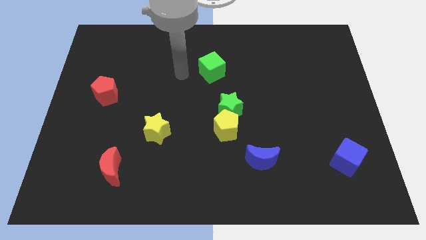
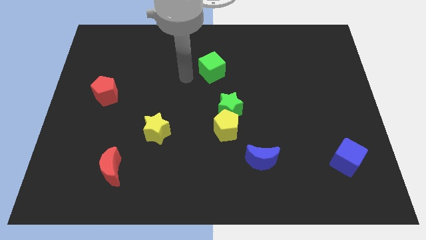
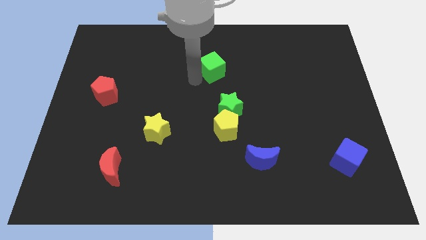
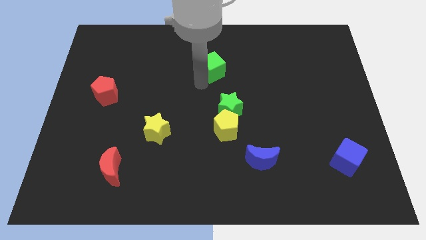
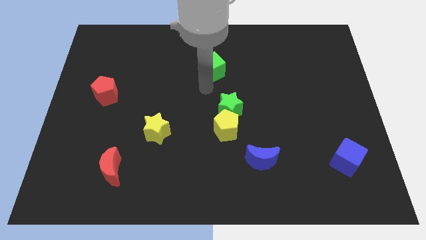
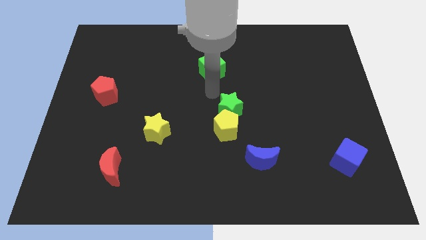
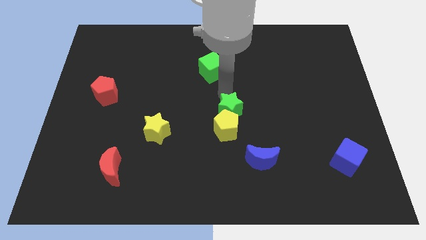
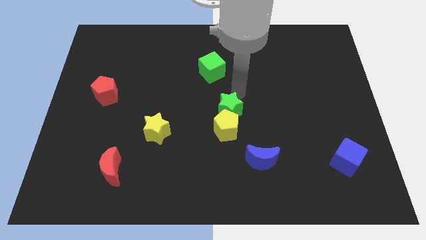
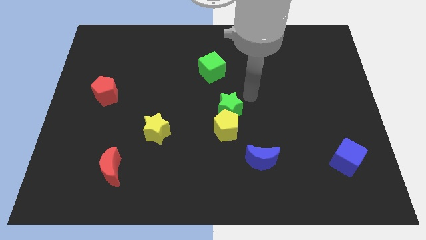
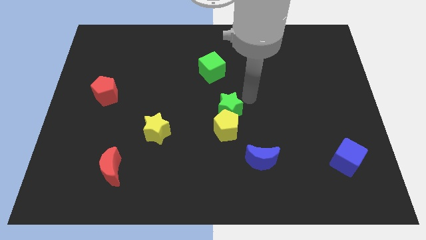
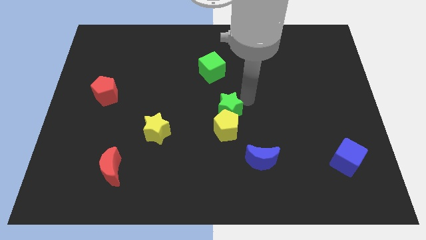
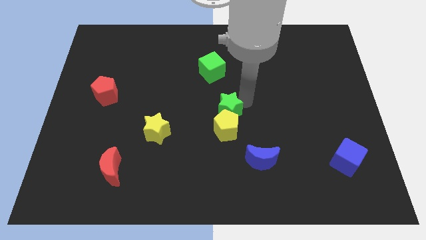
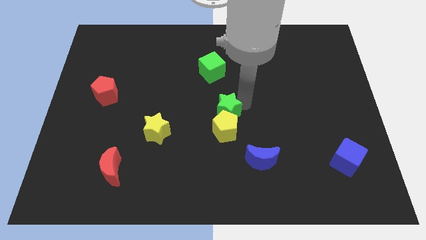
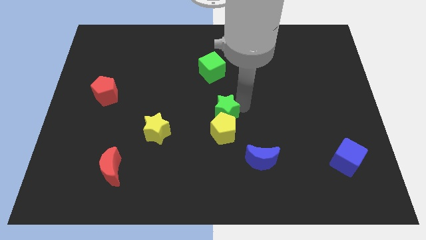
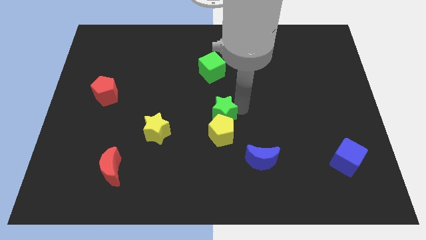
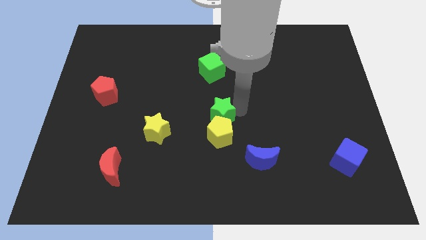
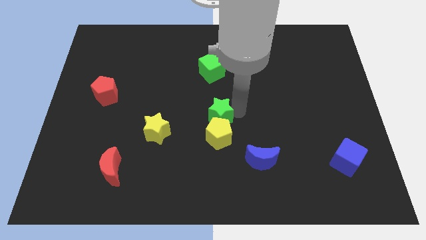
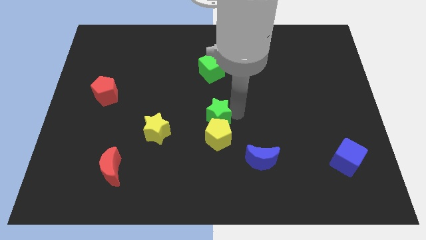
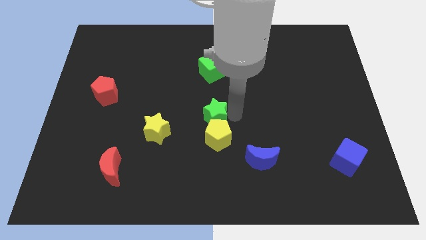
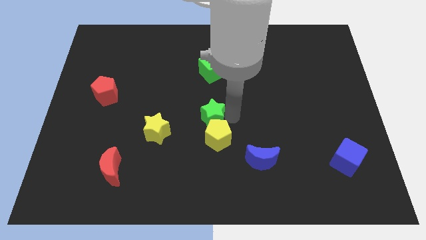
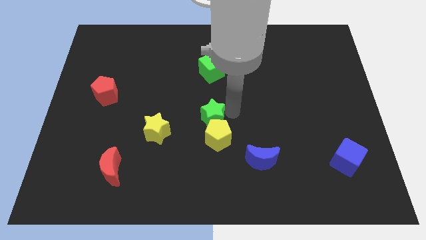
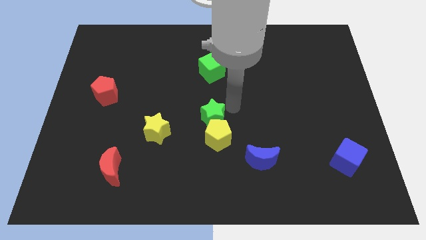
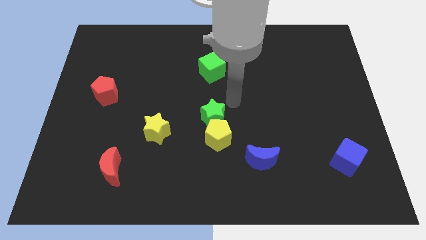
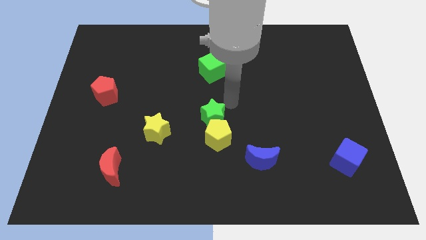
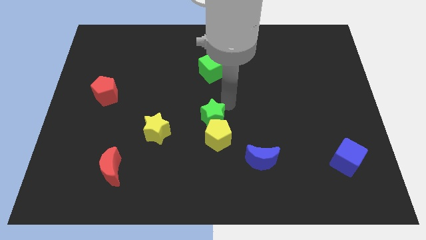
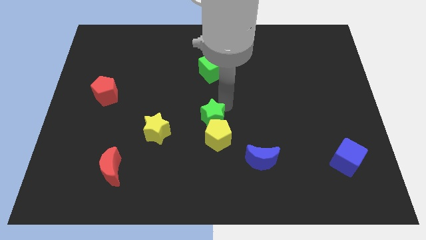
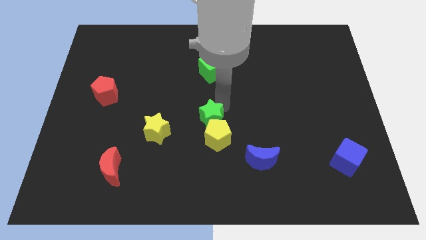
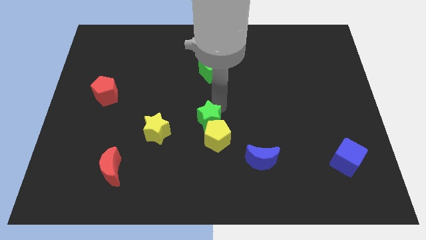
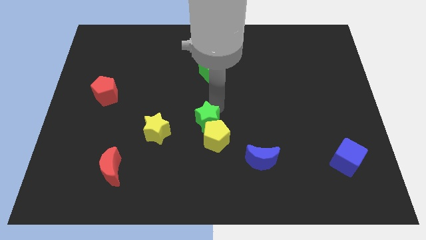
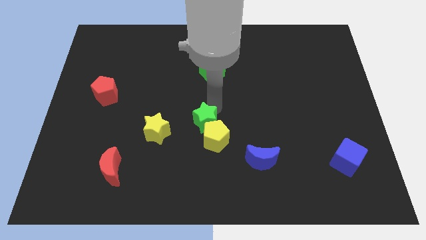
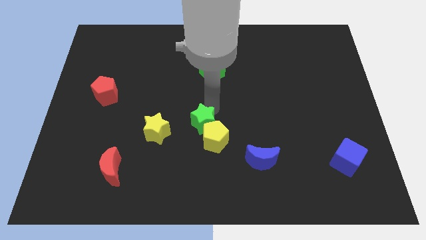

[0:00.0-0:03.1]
move the green star down and then left a little

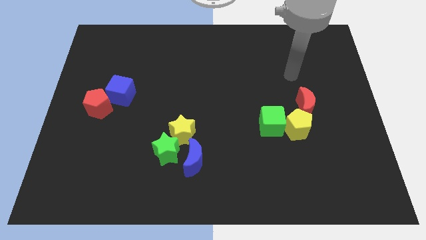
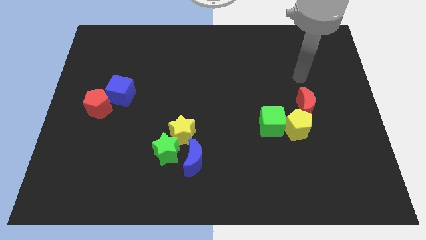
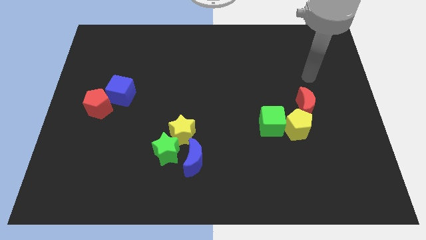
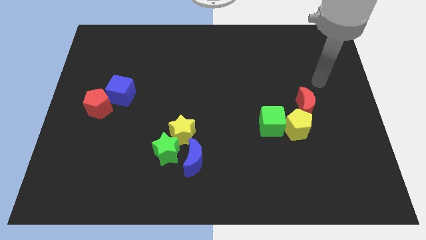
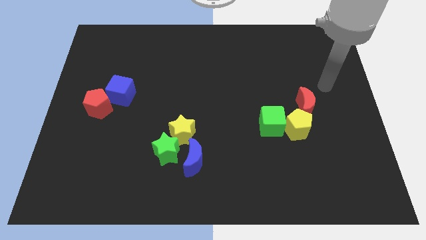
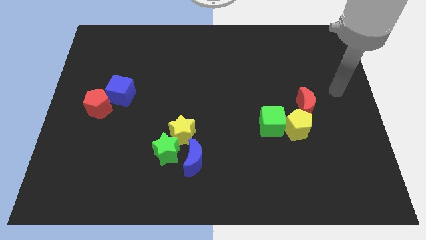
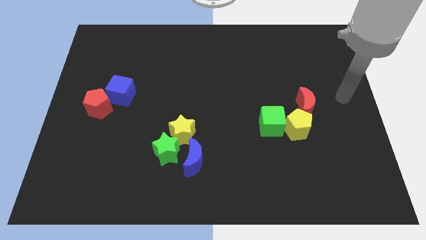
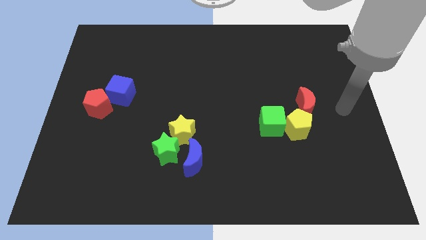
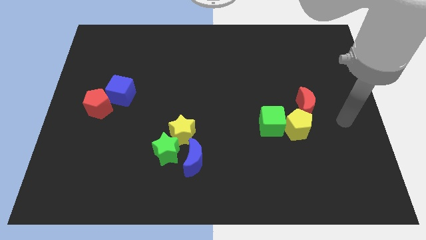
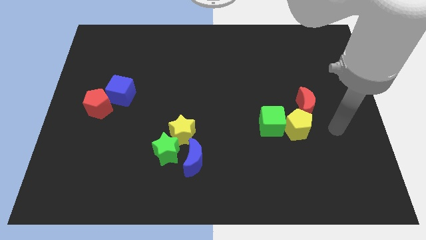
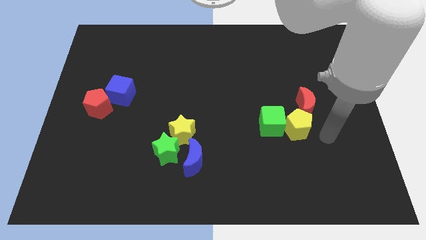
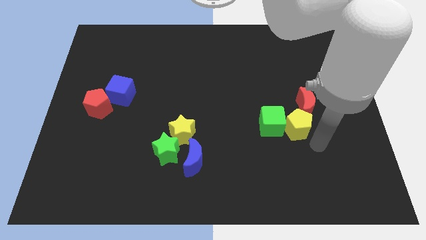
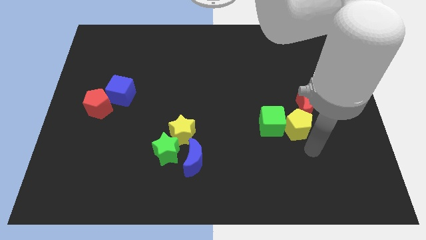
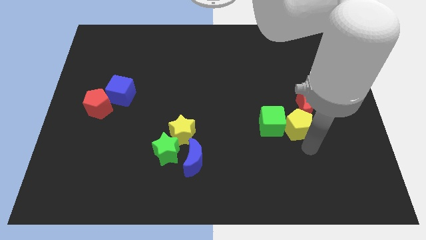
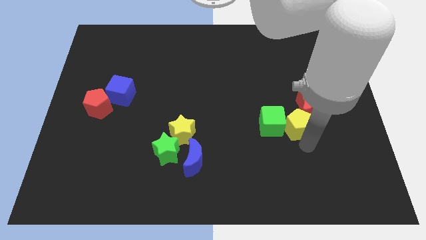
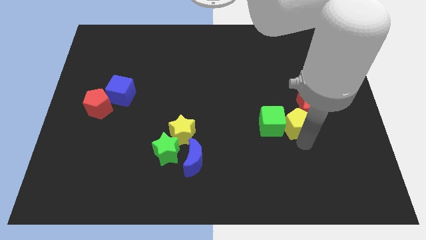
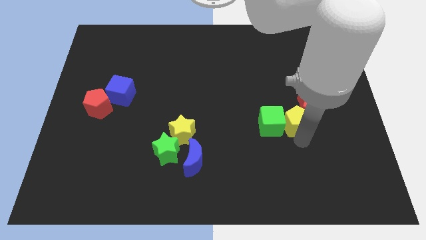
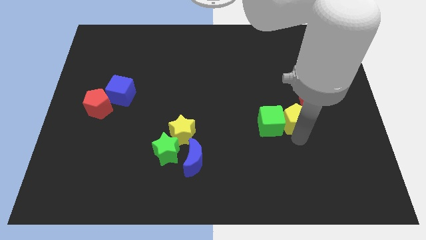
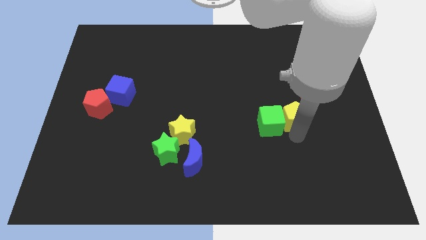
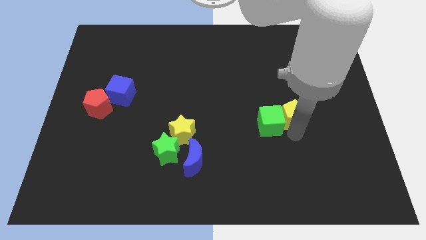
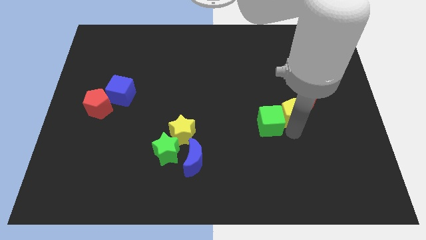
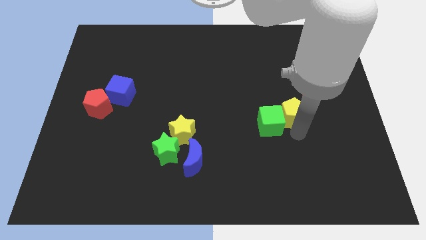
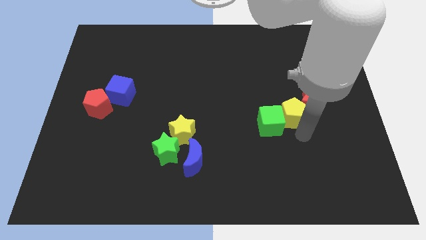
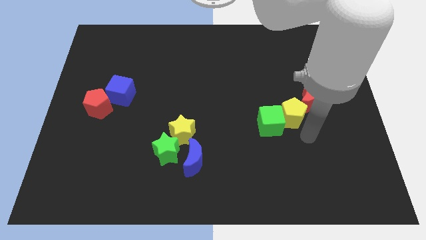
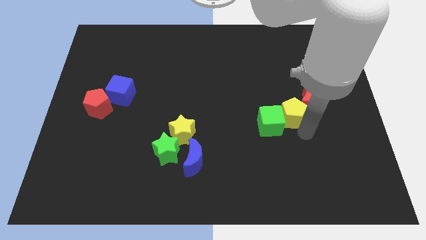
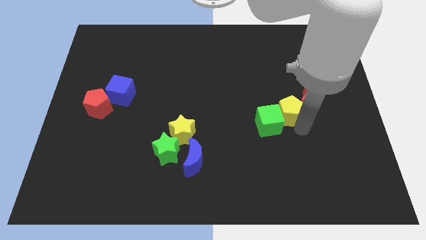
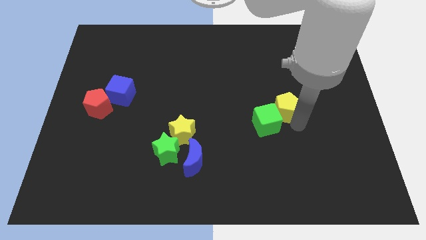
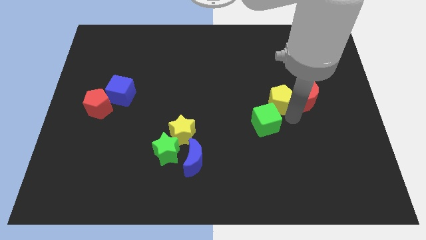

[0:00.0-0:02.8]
push the yellow pentagon somewhat up and left diagonally

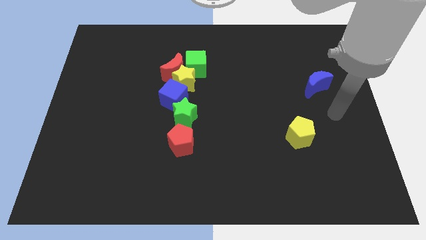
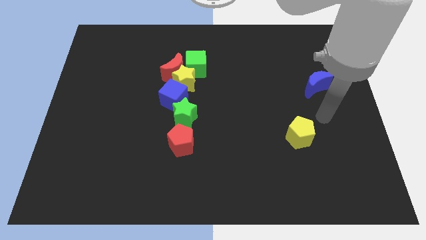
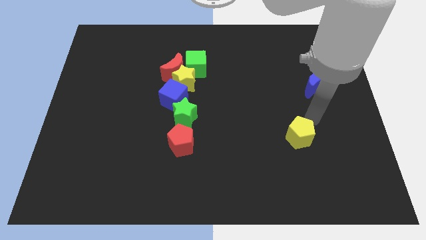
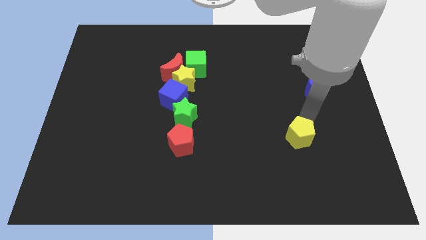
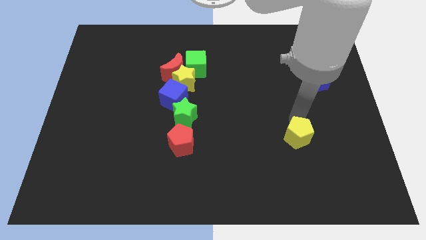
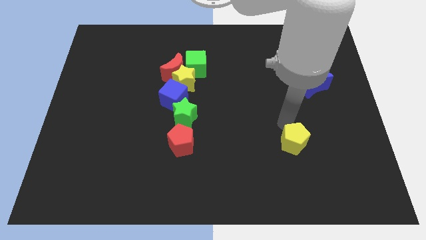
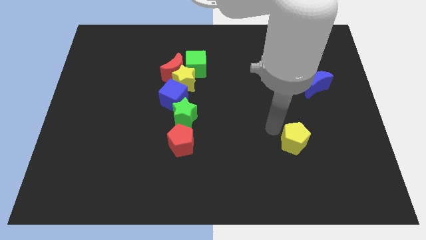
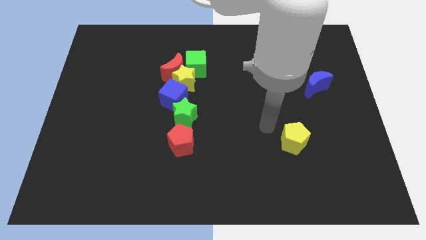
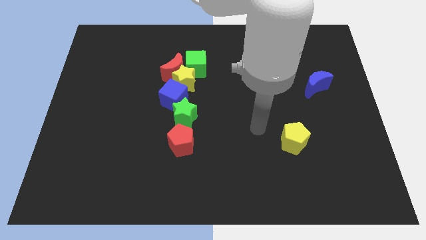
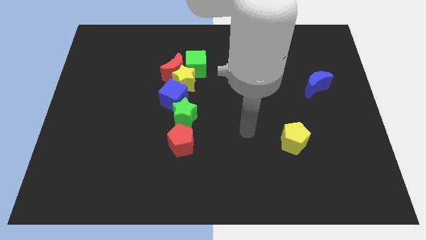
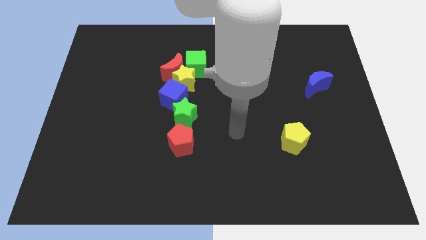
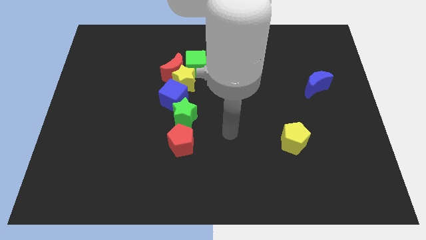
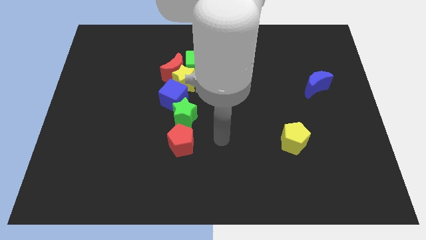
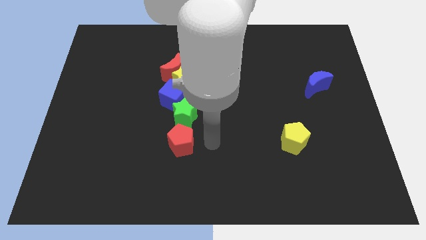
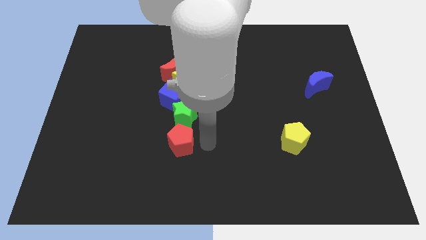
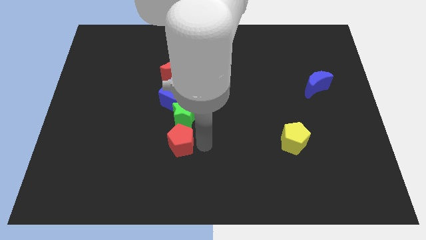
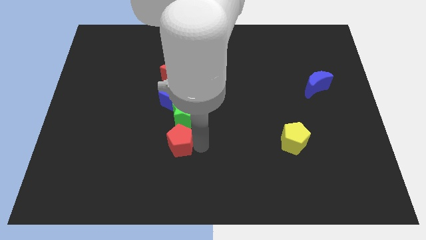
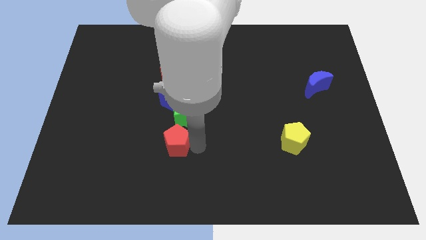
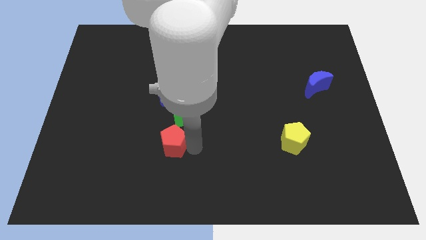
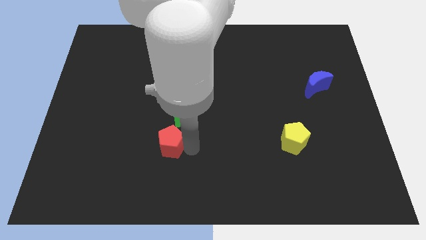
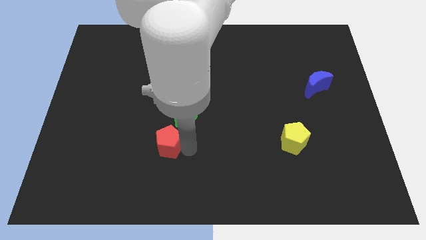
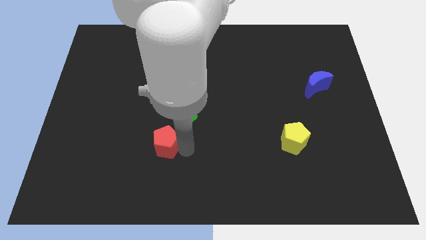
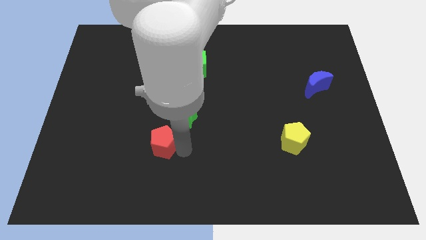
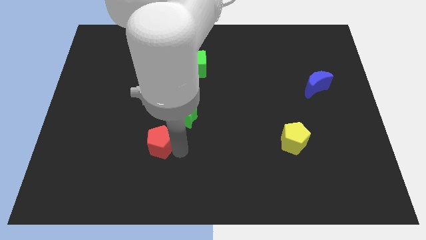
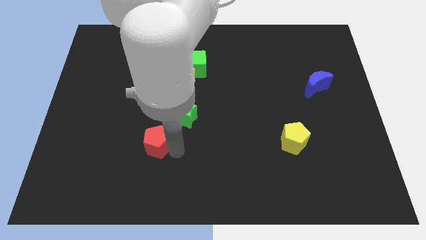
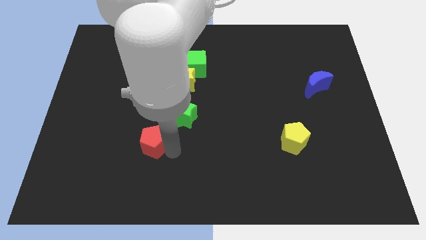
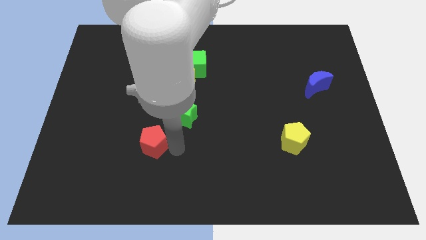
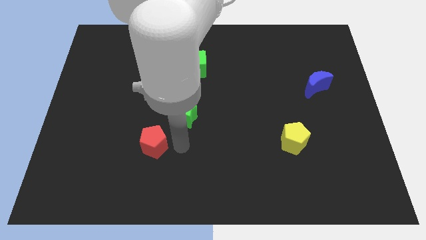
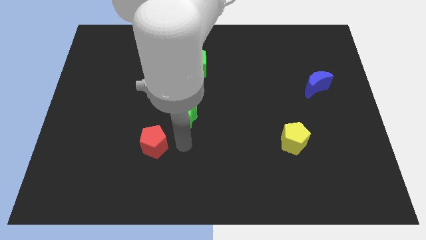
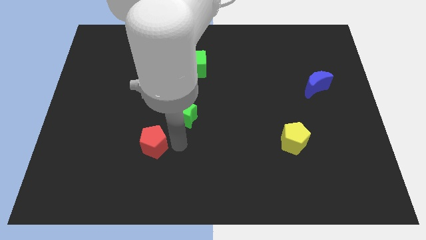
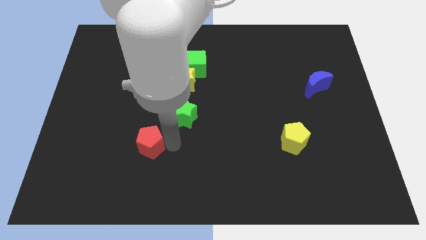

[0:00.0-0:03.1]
push the red pentagon left a little bit
